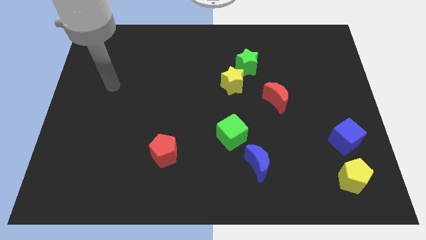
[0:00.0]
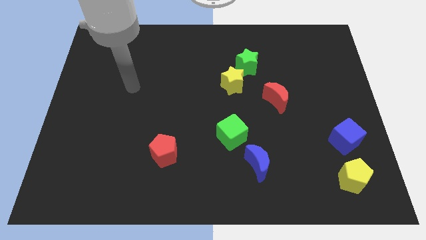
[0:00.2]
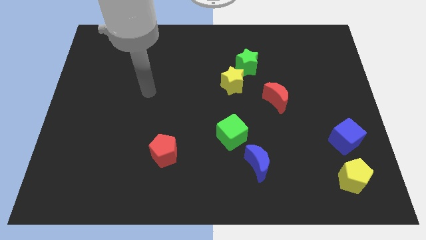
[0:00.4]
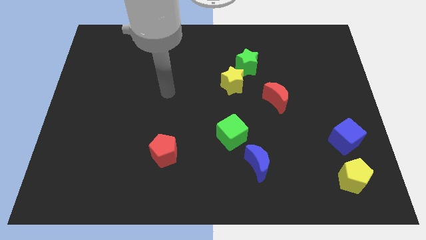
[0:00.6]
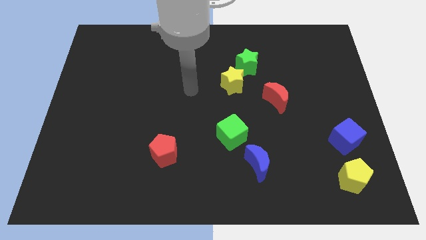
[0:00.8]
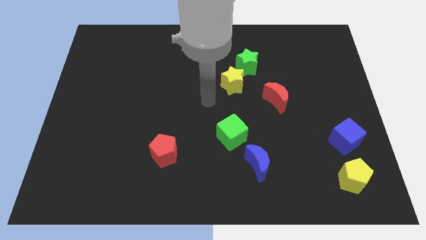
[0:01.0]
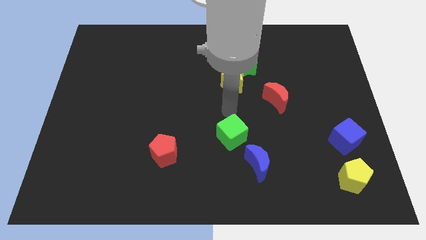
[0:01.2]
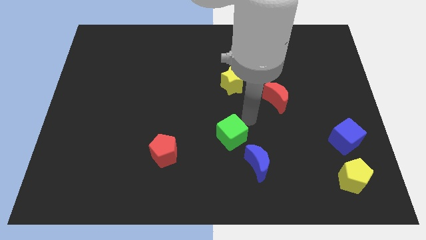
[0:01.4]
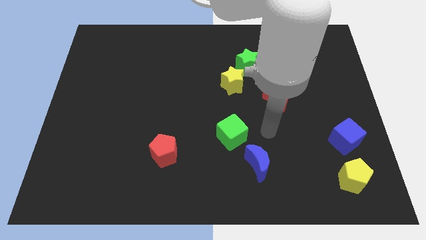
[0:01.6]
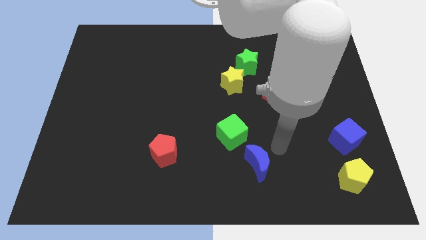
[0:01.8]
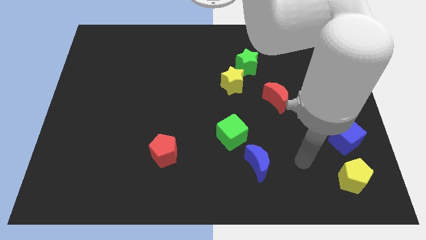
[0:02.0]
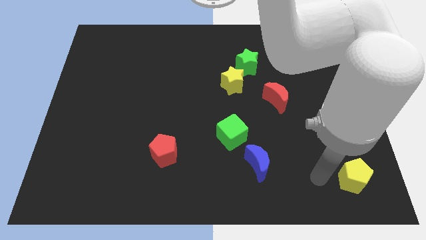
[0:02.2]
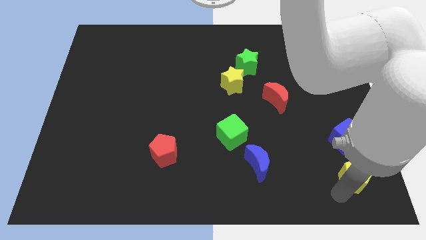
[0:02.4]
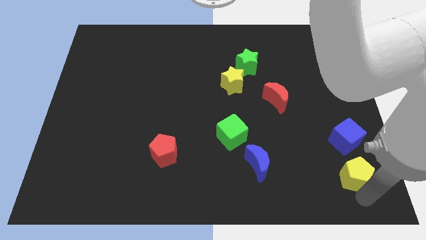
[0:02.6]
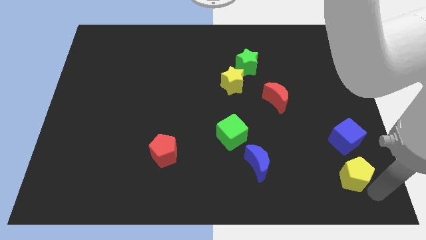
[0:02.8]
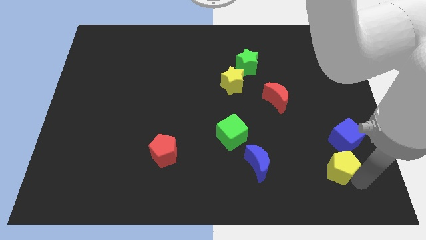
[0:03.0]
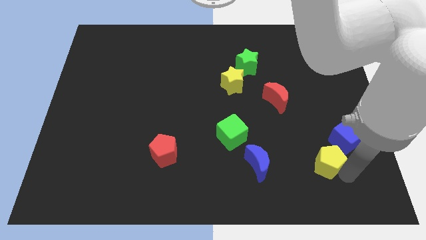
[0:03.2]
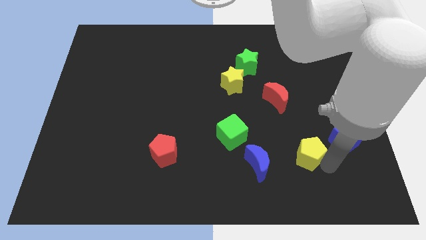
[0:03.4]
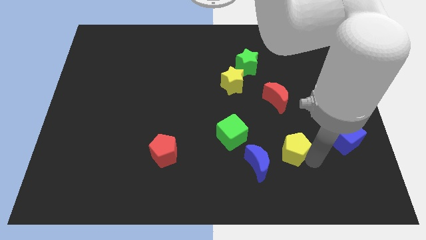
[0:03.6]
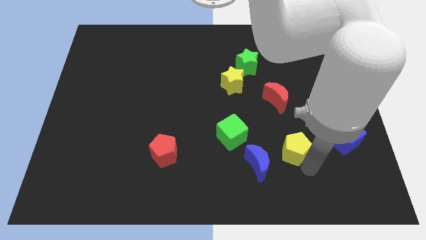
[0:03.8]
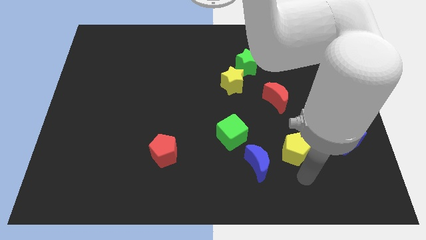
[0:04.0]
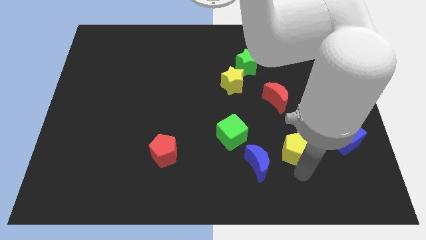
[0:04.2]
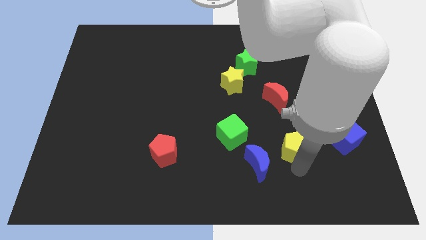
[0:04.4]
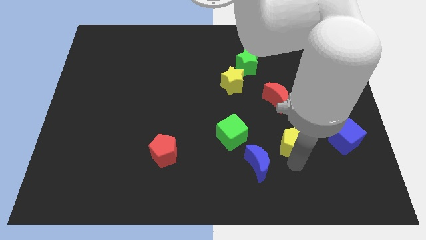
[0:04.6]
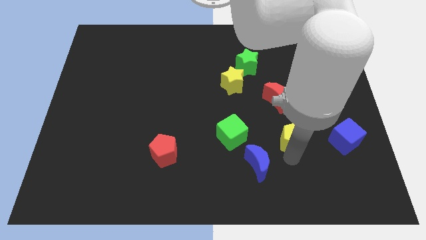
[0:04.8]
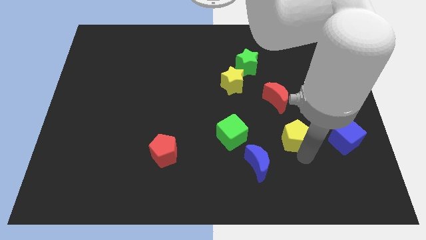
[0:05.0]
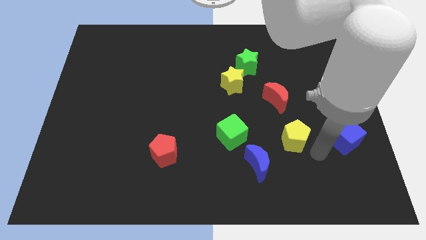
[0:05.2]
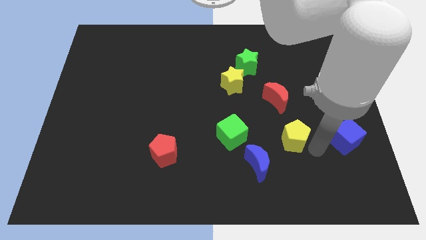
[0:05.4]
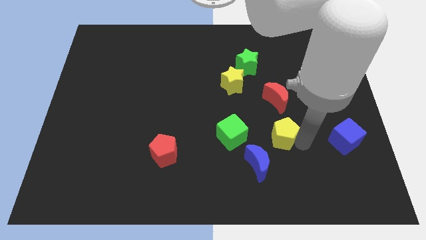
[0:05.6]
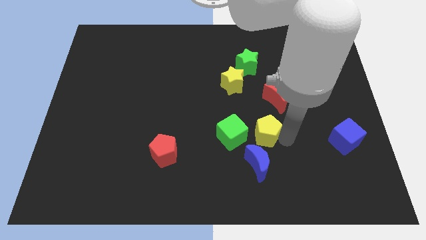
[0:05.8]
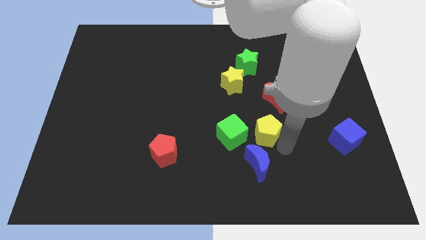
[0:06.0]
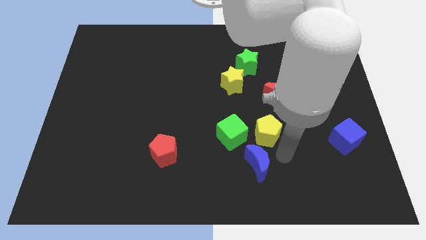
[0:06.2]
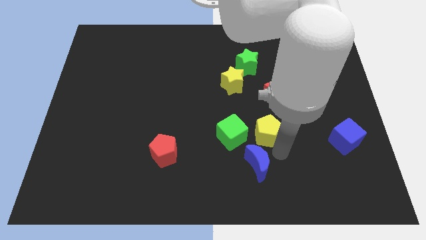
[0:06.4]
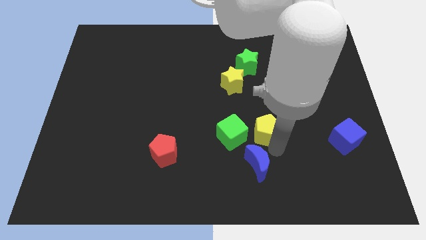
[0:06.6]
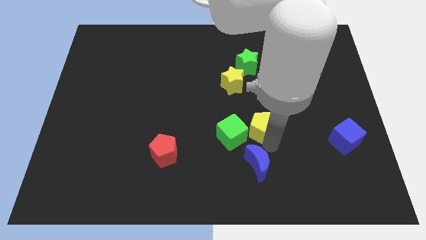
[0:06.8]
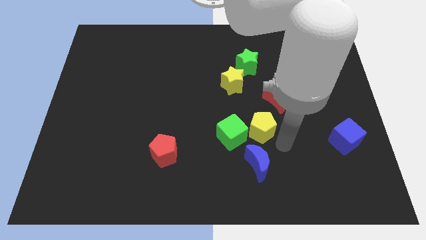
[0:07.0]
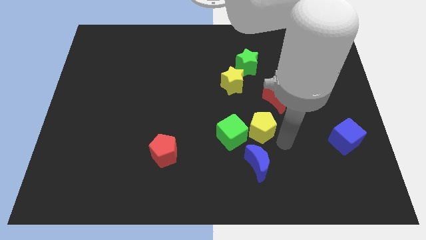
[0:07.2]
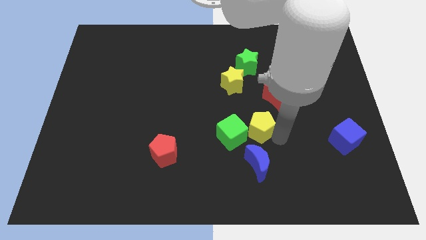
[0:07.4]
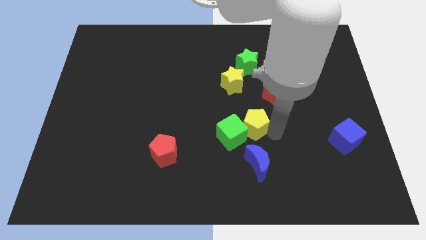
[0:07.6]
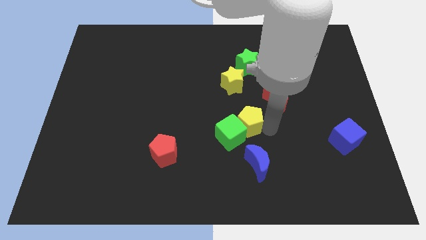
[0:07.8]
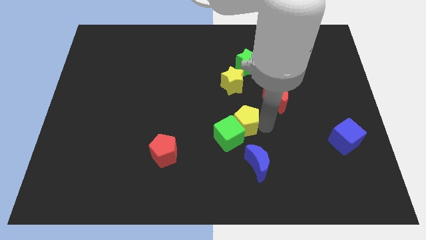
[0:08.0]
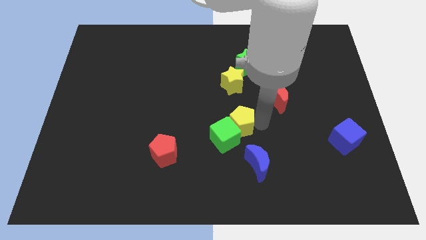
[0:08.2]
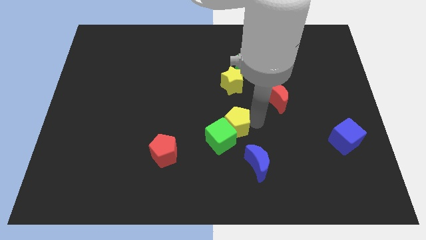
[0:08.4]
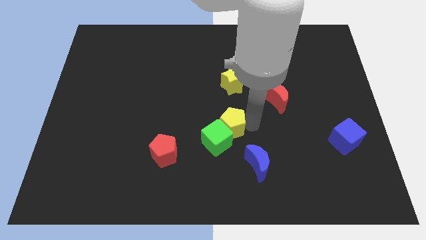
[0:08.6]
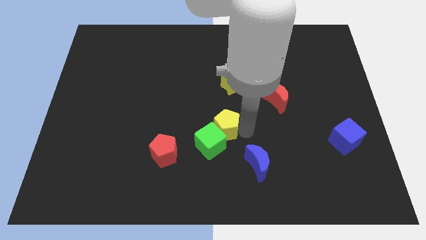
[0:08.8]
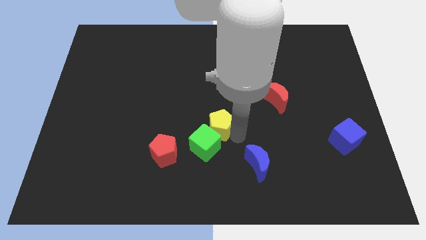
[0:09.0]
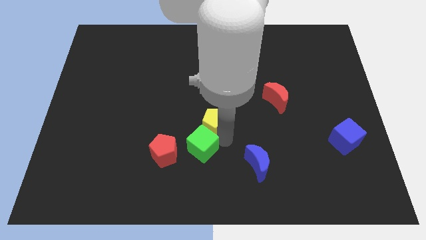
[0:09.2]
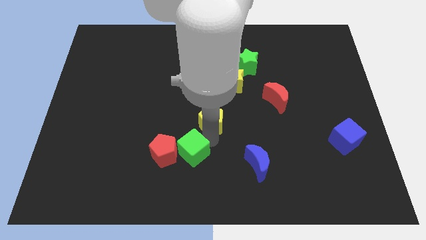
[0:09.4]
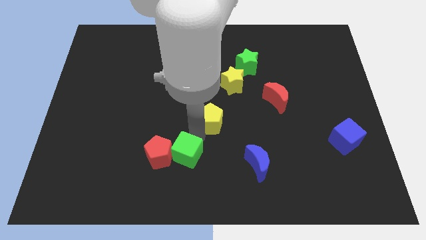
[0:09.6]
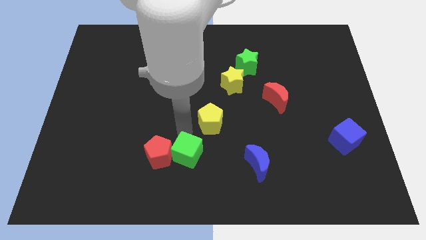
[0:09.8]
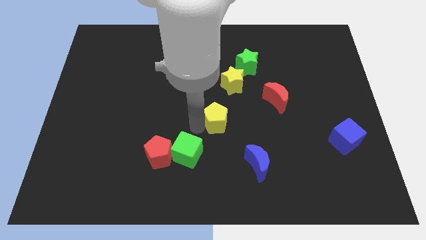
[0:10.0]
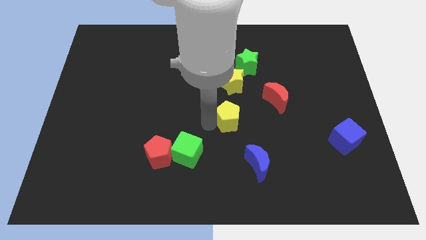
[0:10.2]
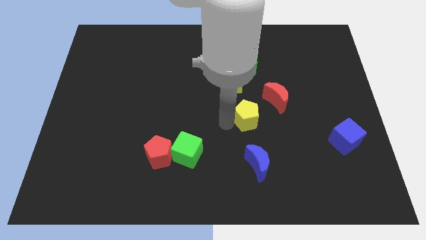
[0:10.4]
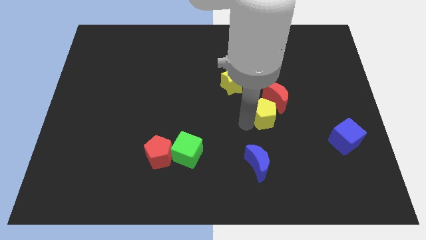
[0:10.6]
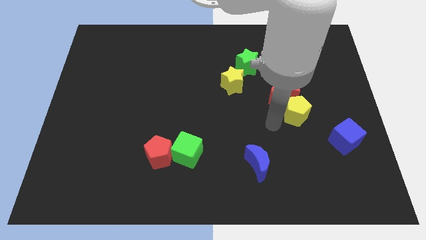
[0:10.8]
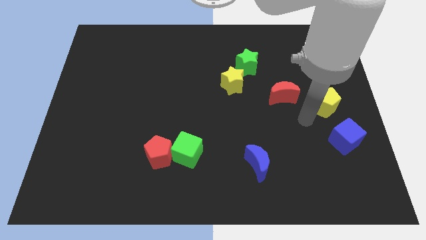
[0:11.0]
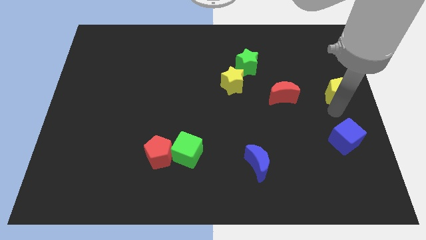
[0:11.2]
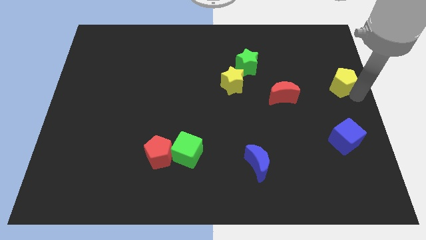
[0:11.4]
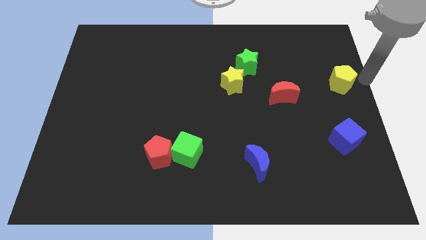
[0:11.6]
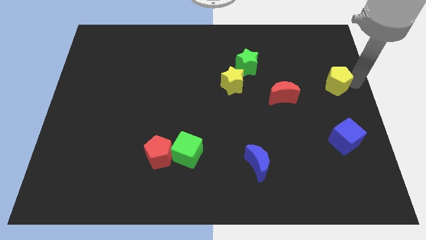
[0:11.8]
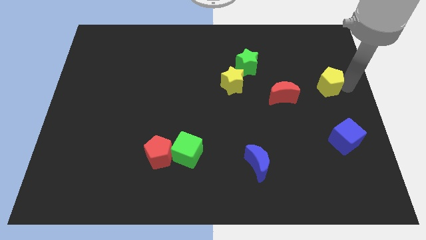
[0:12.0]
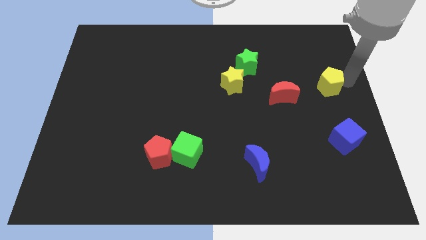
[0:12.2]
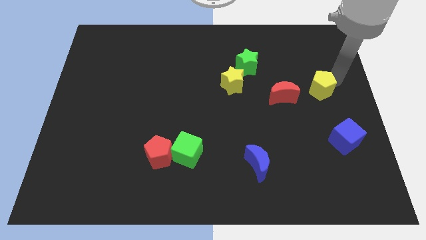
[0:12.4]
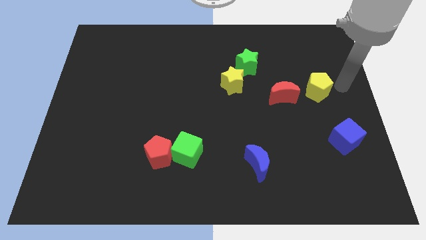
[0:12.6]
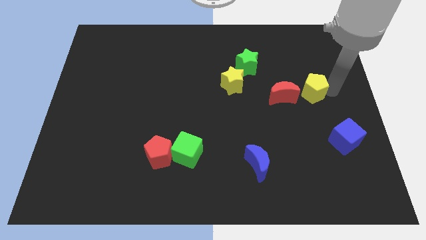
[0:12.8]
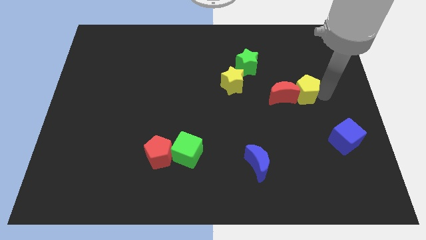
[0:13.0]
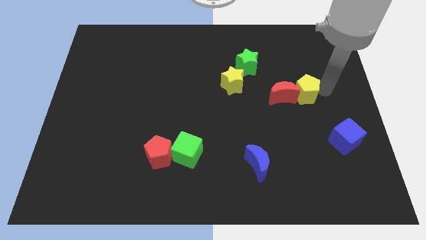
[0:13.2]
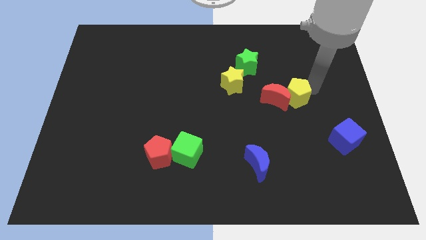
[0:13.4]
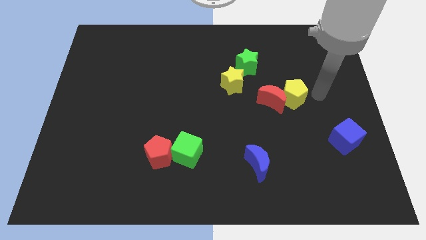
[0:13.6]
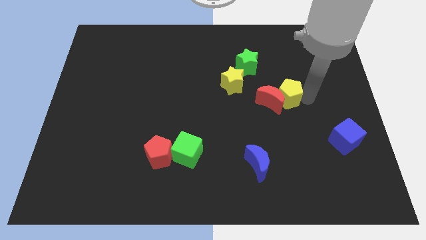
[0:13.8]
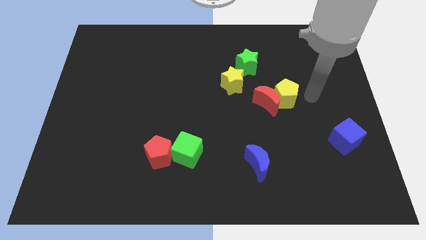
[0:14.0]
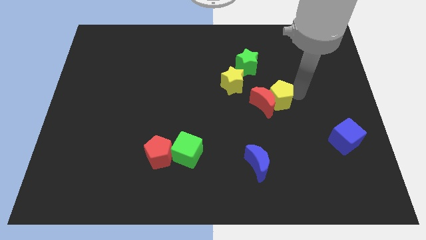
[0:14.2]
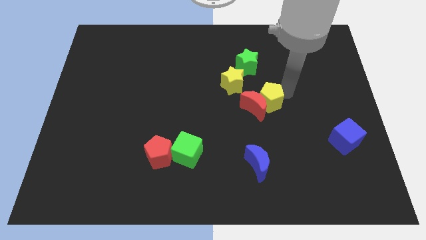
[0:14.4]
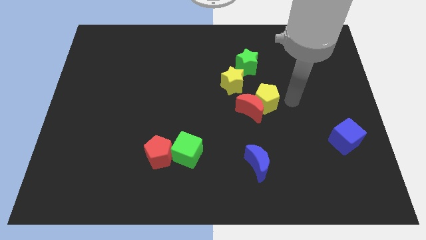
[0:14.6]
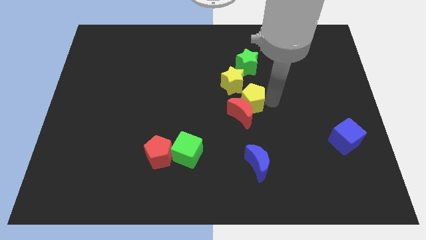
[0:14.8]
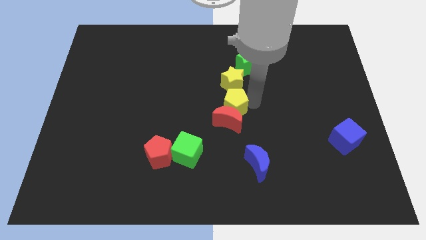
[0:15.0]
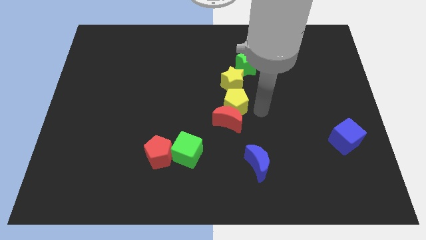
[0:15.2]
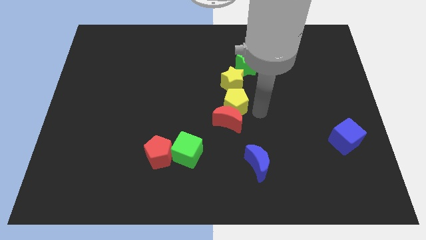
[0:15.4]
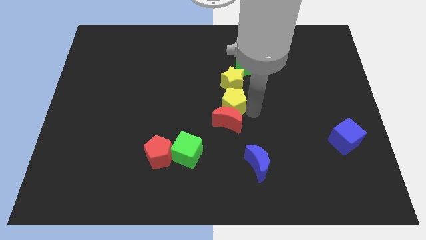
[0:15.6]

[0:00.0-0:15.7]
move the yellow pentagon to the bottom left of the yellow star
